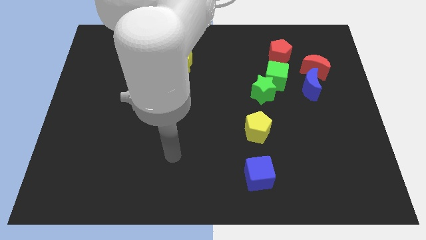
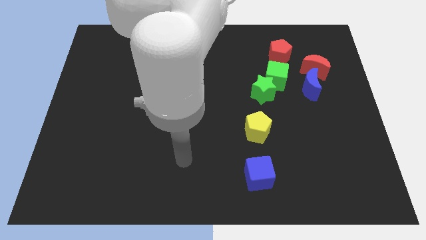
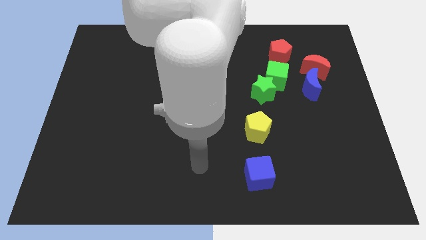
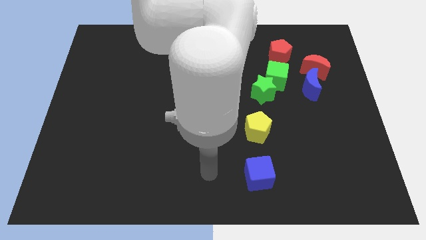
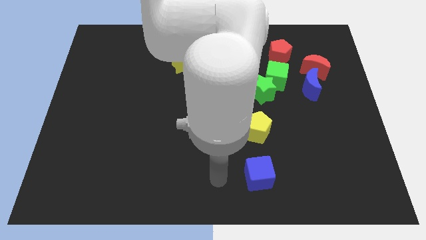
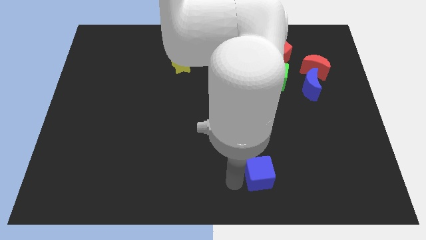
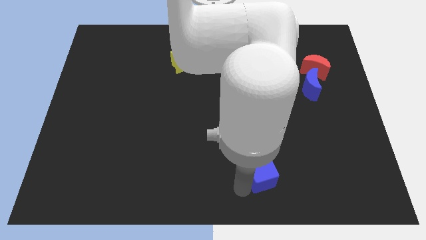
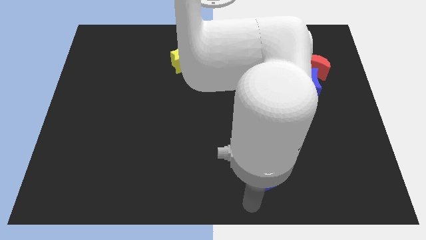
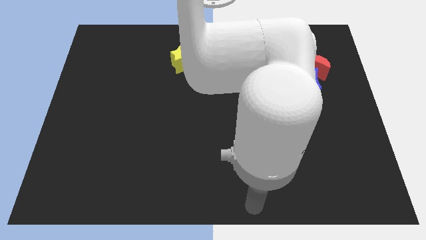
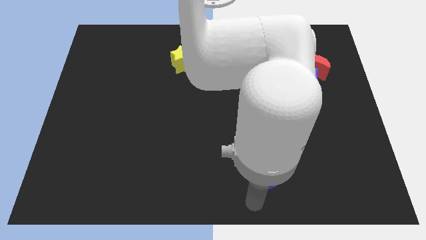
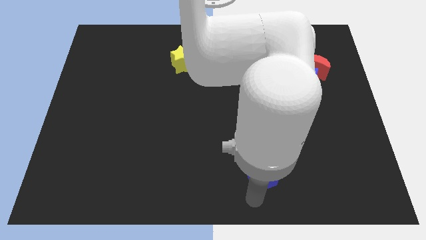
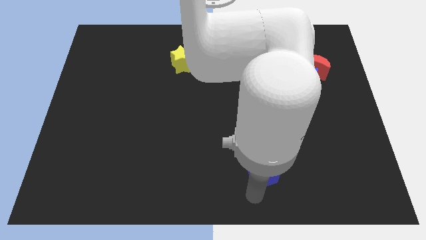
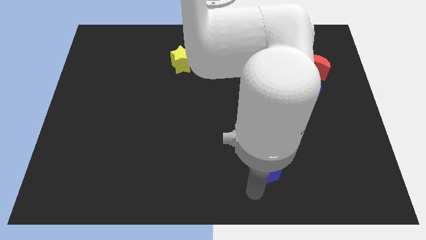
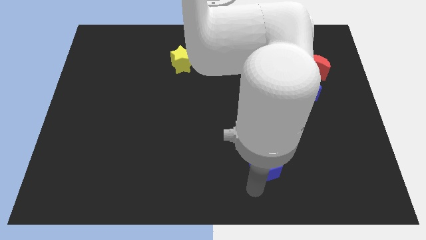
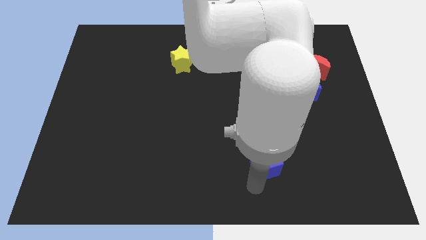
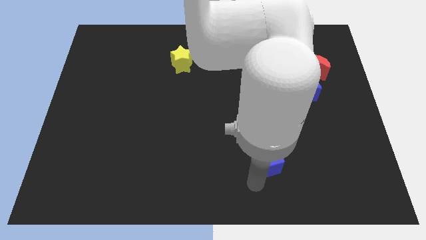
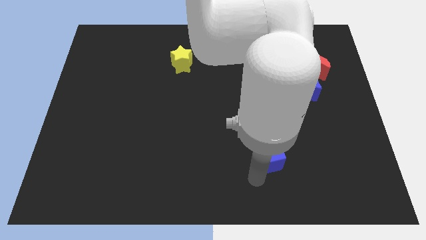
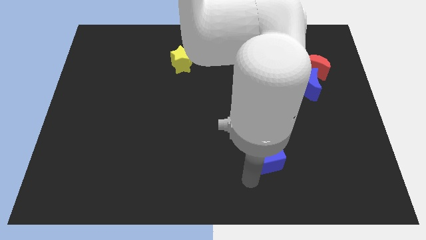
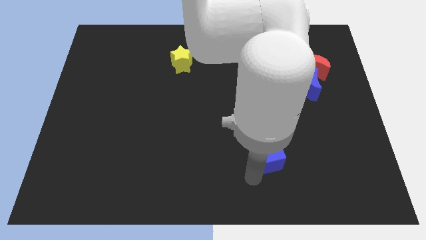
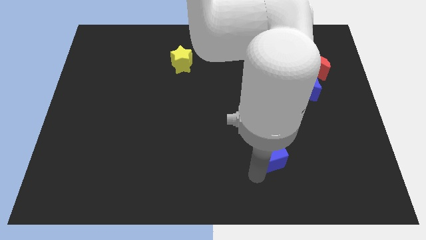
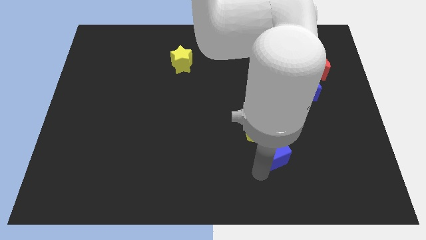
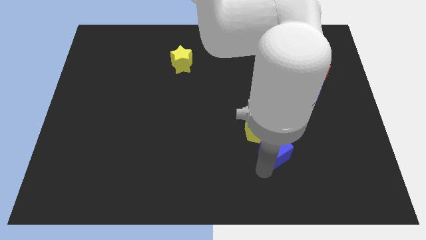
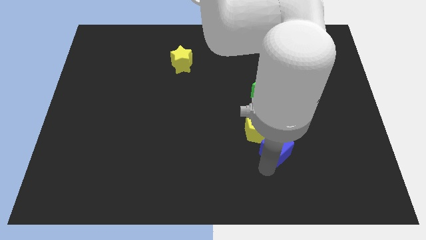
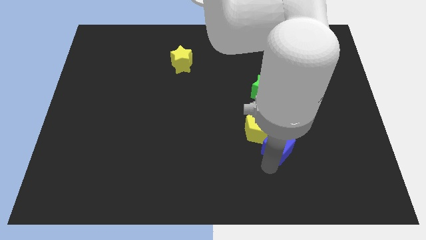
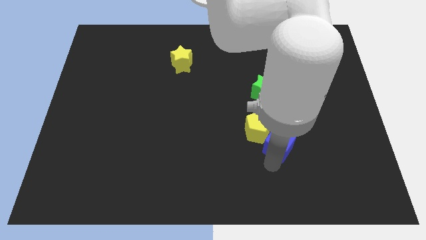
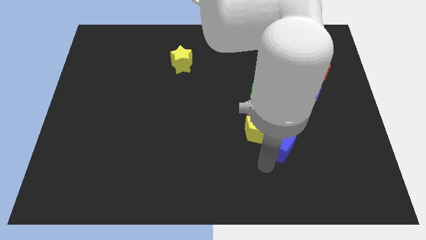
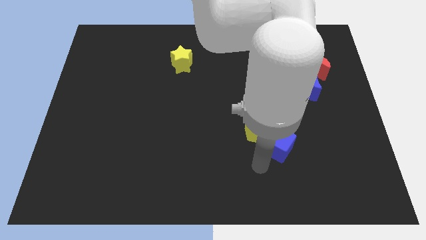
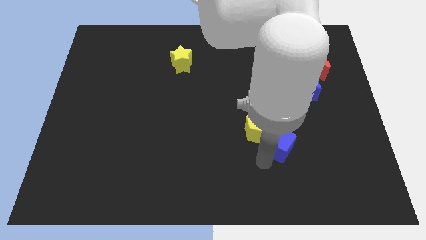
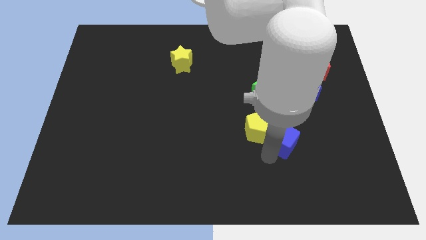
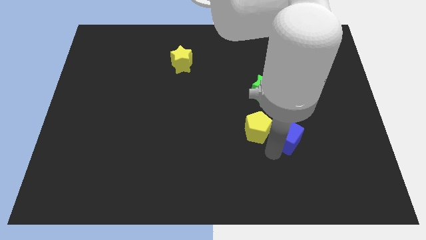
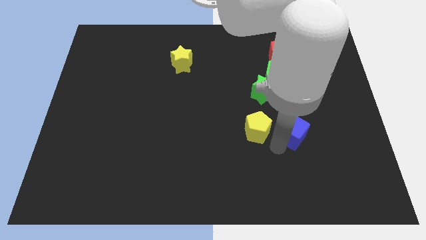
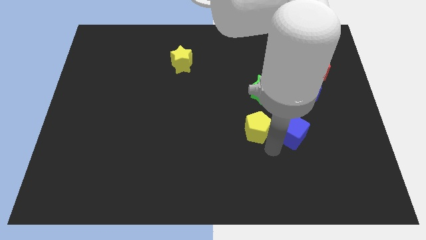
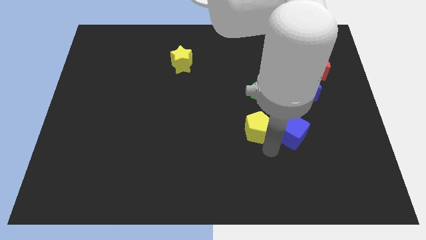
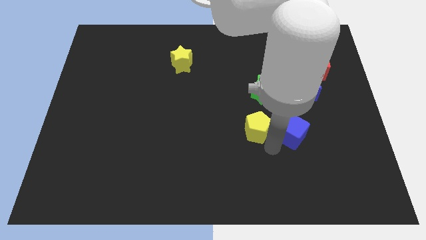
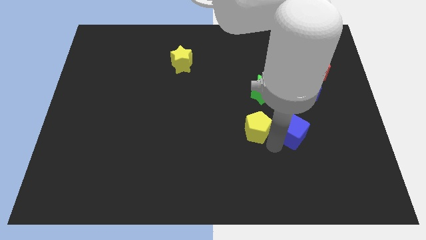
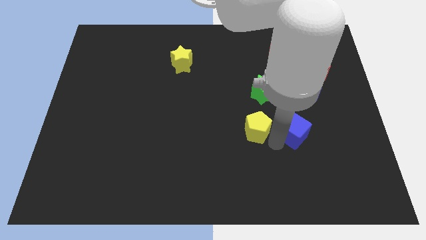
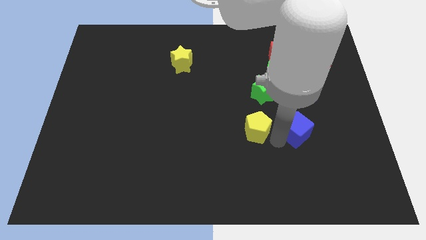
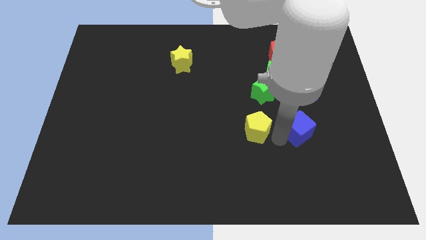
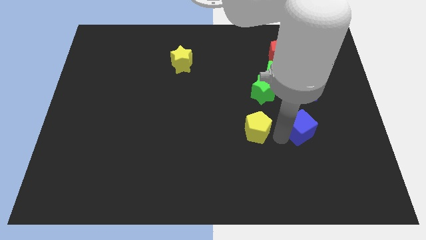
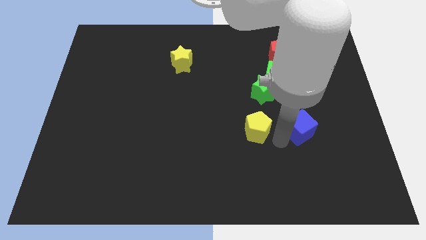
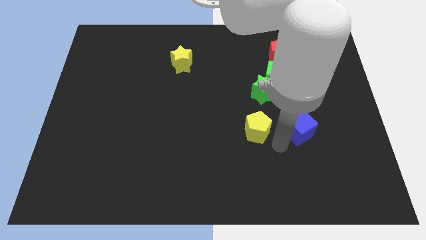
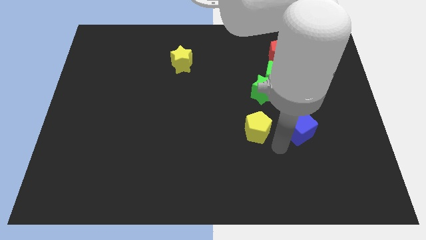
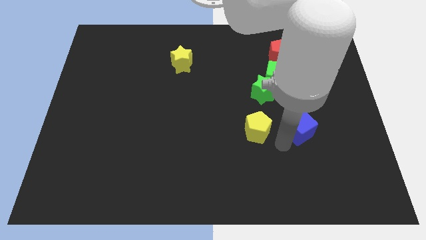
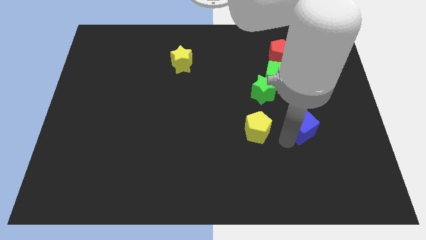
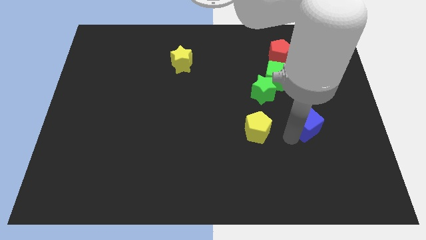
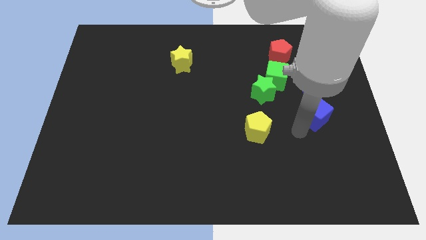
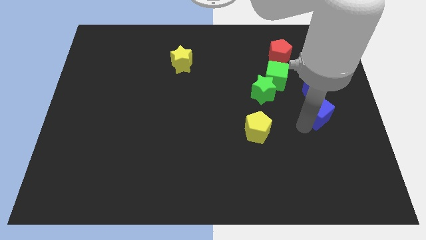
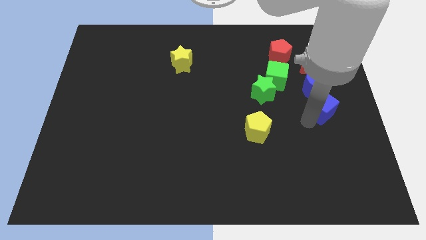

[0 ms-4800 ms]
put the blue cube to the bottom right side of the blue moon

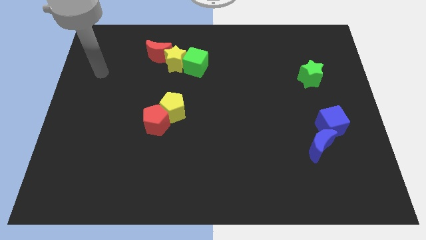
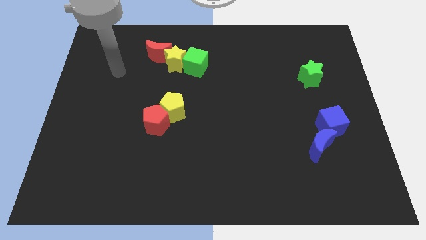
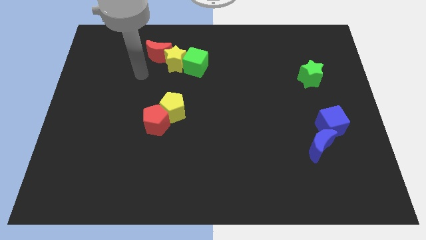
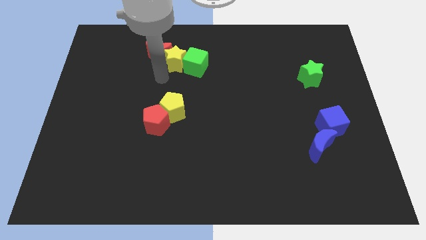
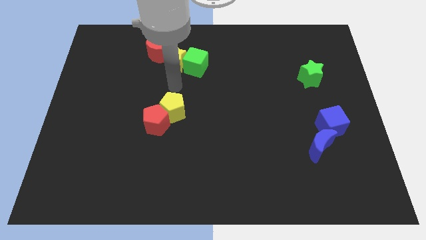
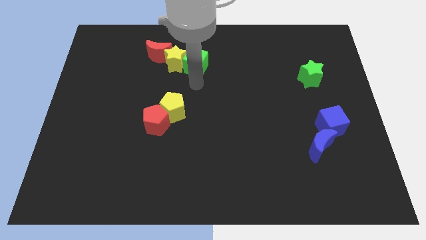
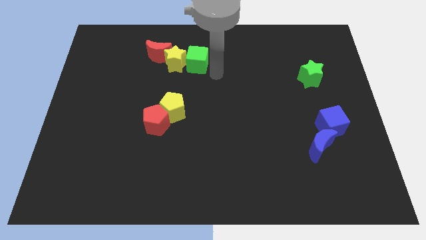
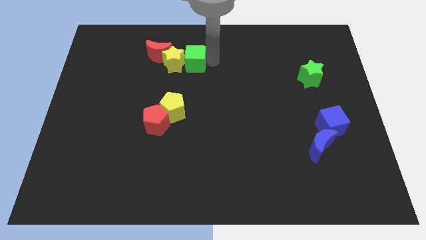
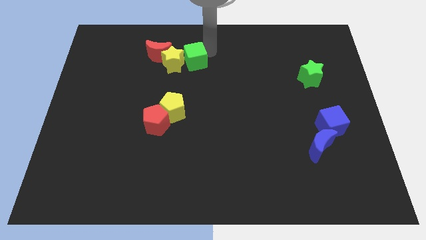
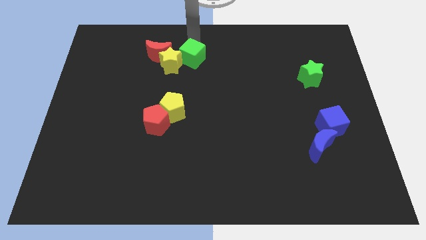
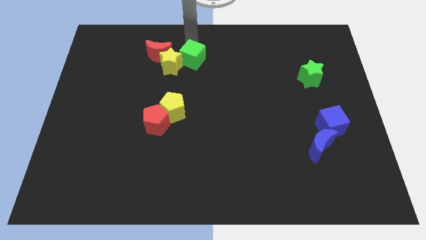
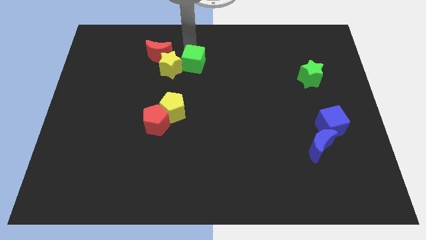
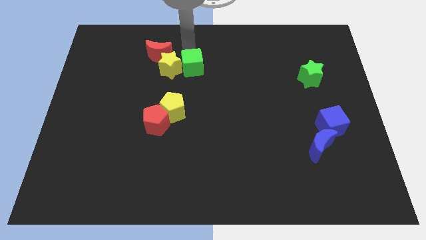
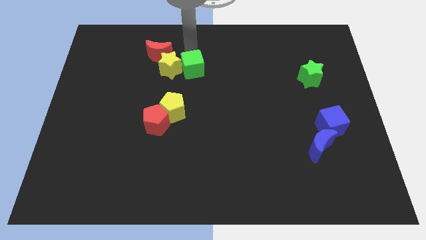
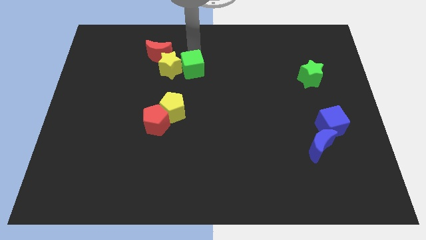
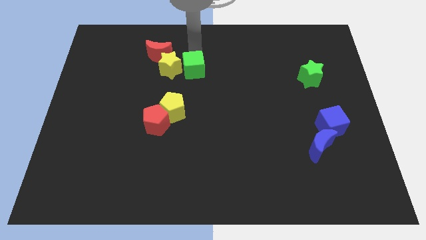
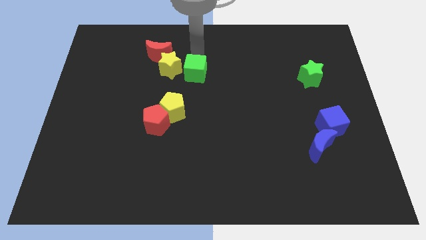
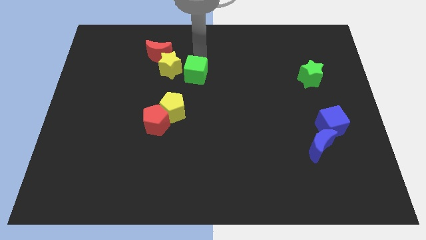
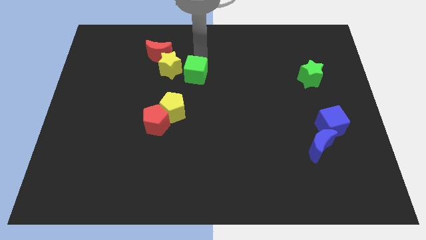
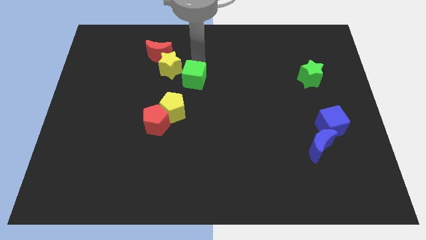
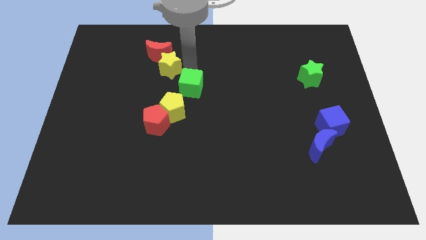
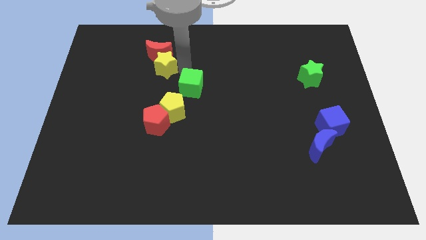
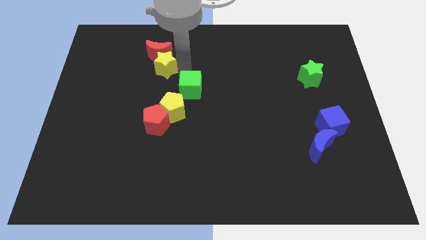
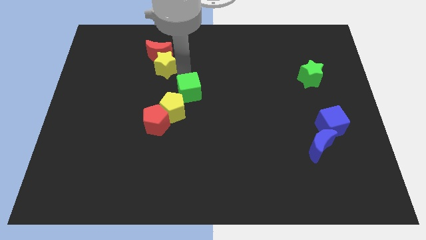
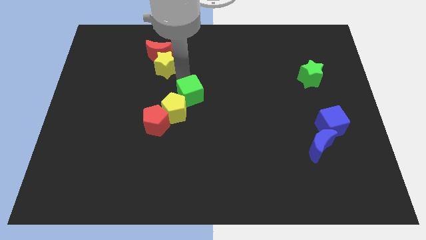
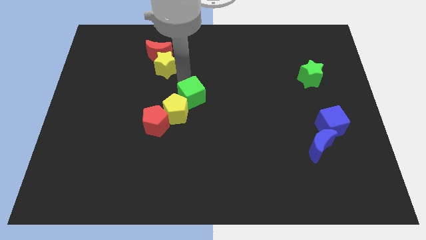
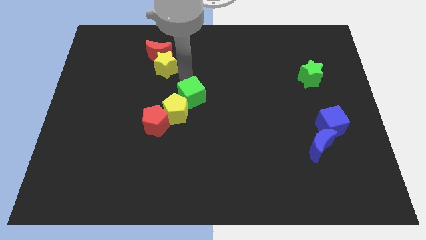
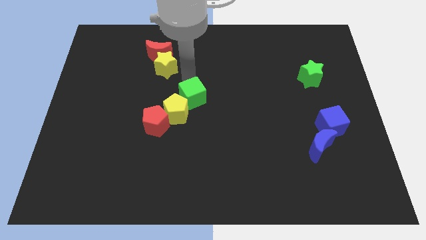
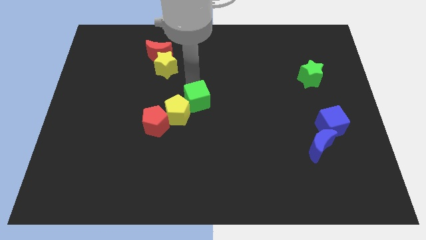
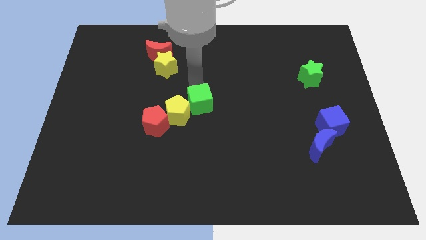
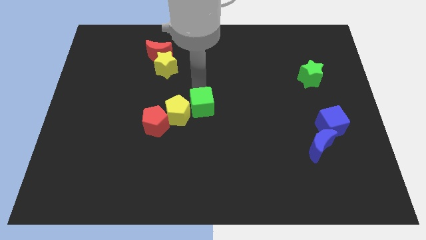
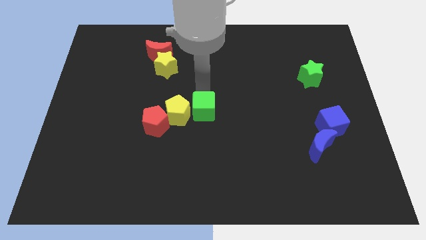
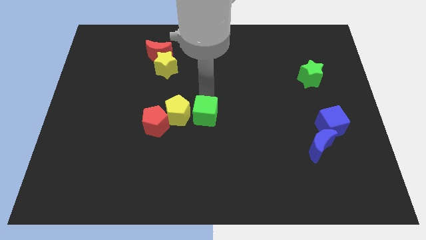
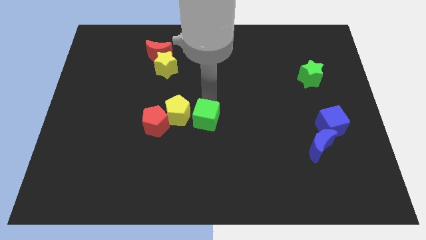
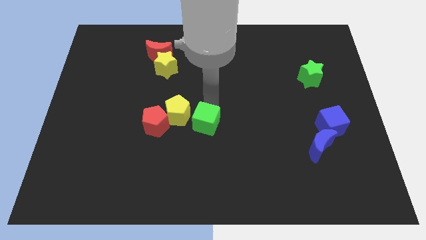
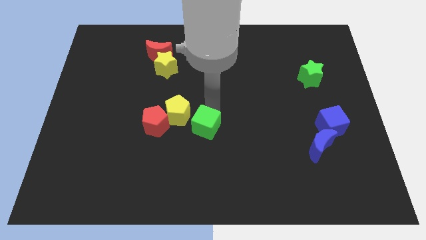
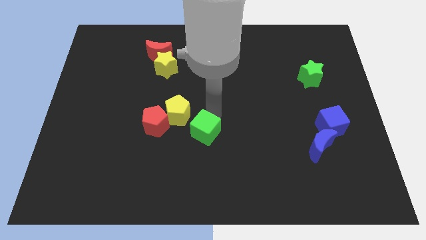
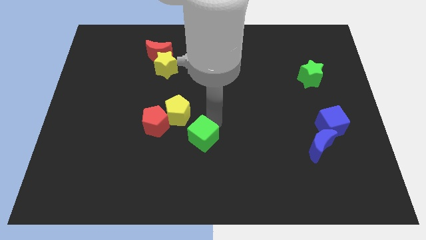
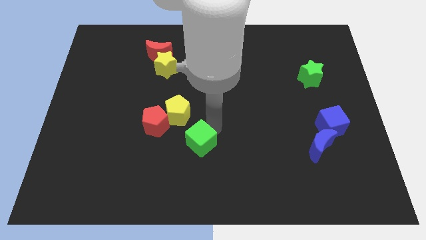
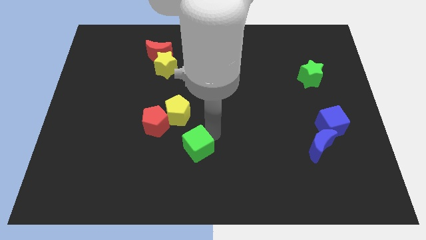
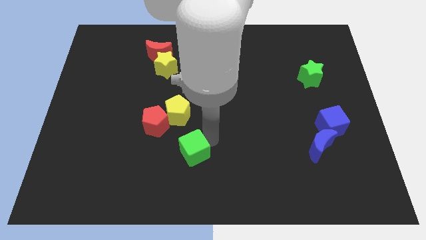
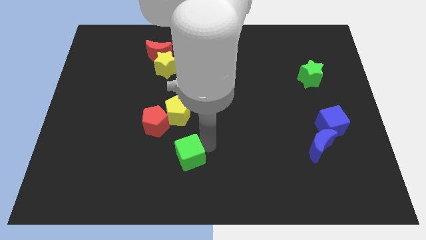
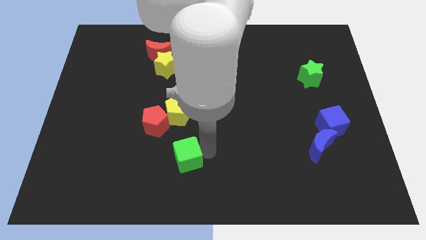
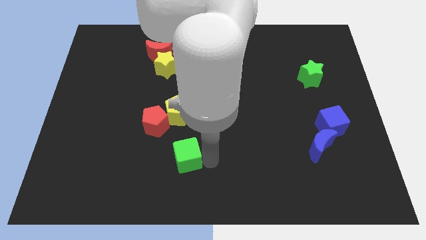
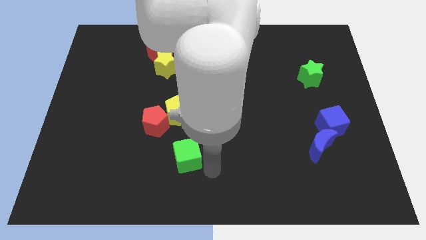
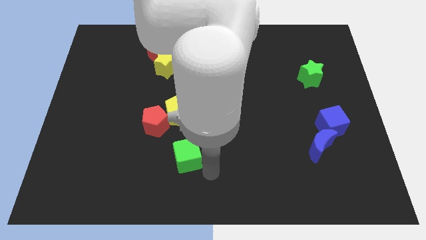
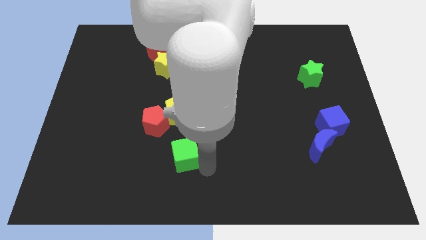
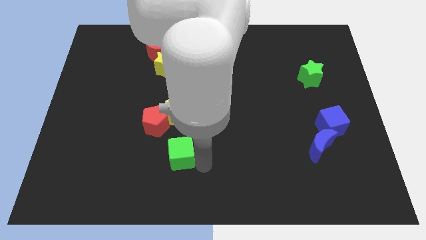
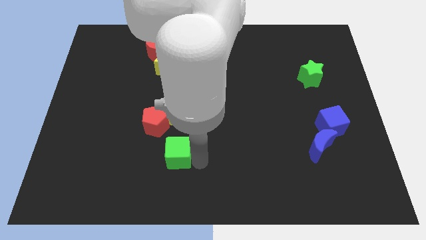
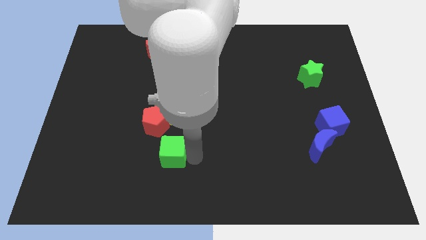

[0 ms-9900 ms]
put the green cube below the red pentagon
